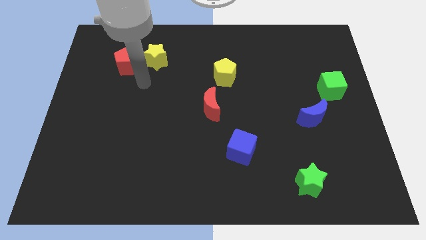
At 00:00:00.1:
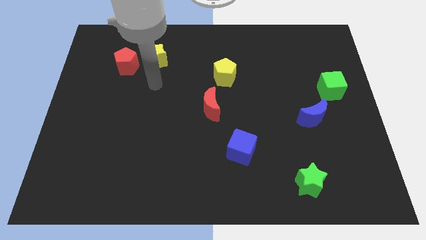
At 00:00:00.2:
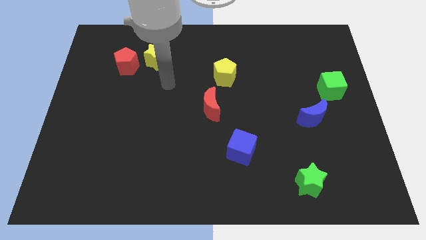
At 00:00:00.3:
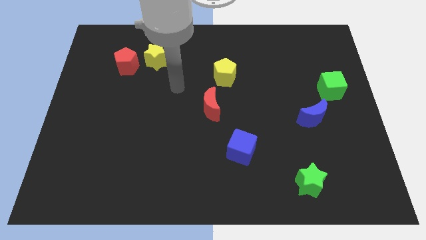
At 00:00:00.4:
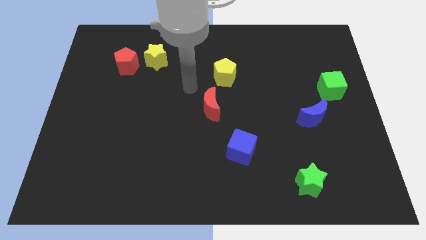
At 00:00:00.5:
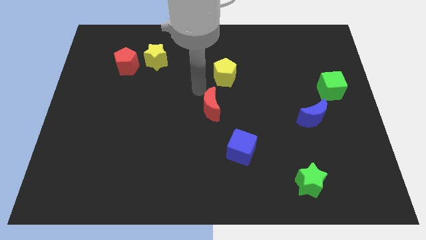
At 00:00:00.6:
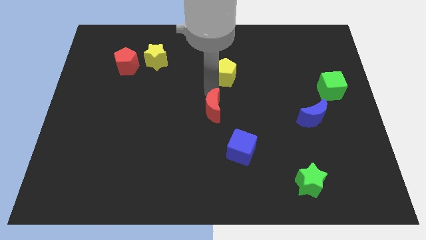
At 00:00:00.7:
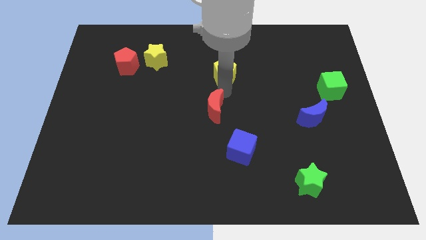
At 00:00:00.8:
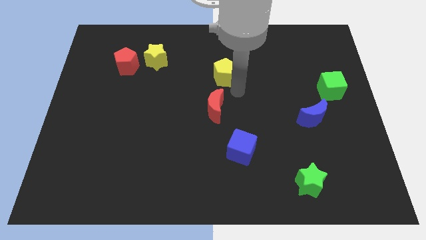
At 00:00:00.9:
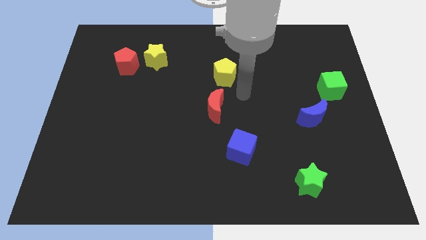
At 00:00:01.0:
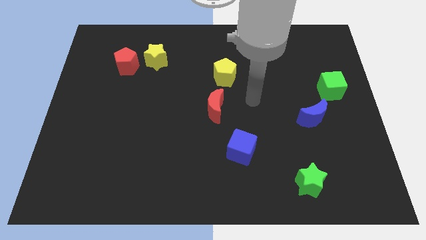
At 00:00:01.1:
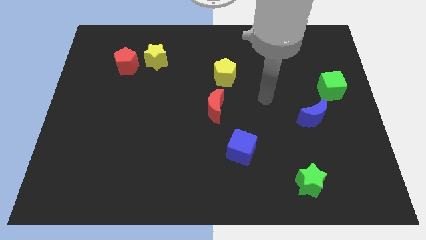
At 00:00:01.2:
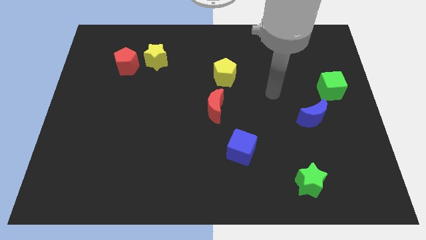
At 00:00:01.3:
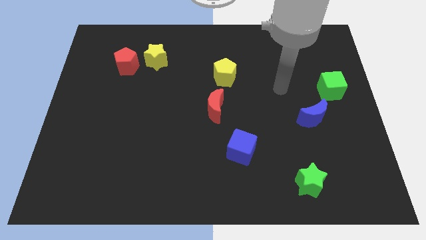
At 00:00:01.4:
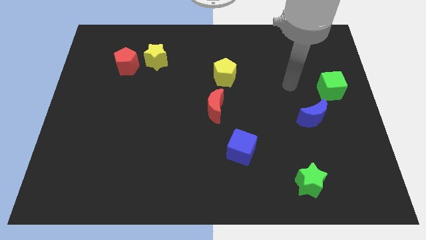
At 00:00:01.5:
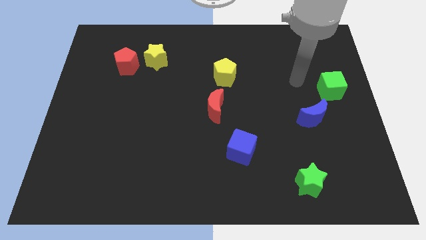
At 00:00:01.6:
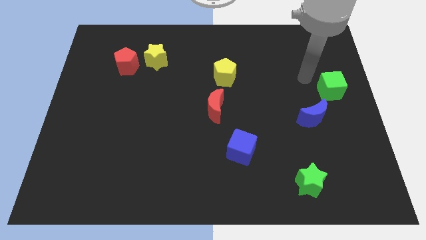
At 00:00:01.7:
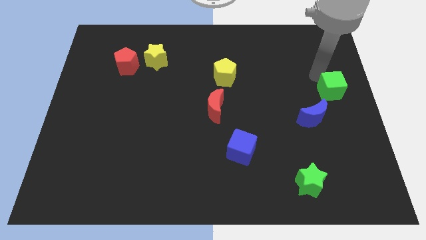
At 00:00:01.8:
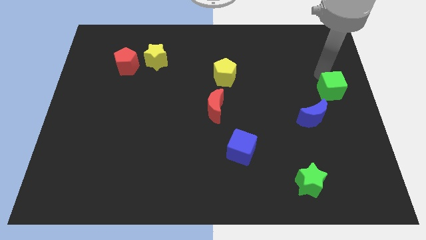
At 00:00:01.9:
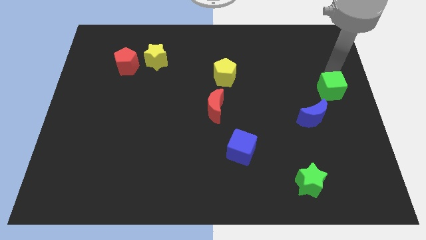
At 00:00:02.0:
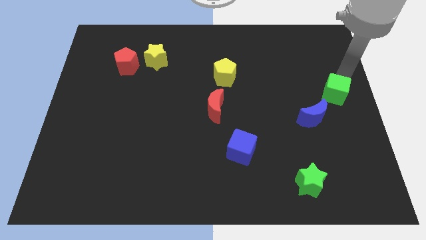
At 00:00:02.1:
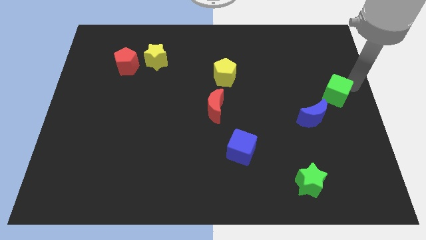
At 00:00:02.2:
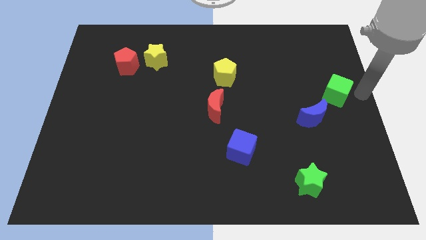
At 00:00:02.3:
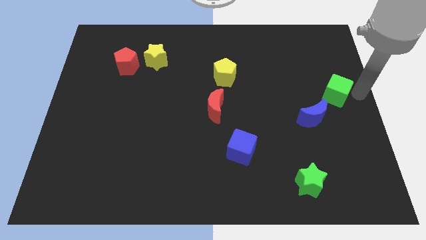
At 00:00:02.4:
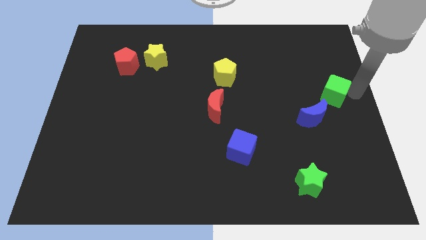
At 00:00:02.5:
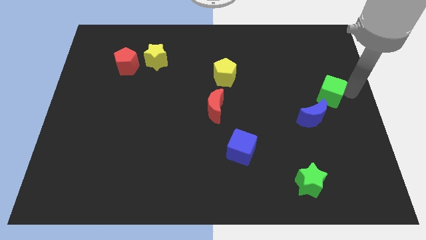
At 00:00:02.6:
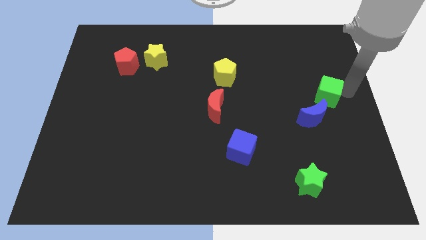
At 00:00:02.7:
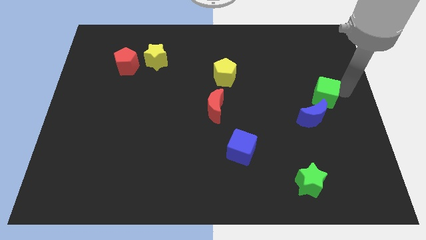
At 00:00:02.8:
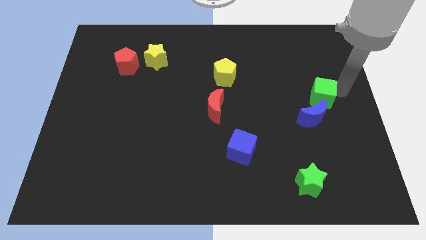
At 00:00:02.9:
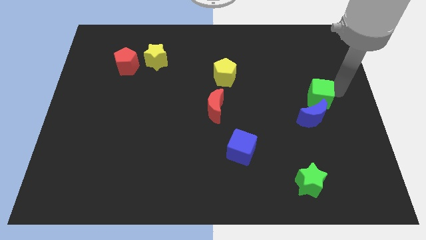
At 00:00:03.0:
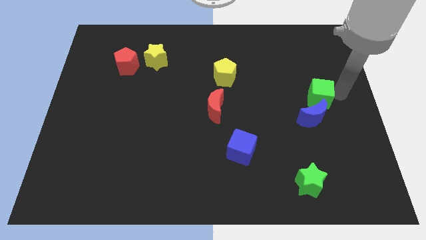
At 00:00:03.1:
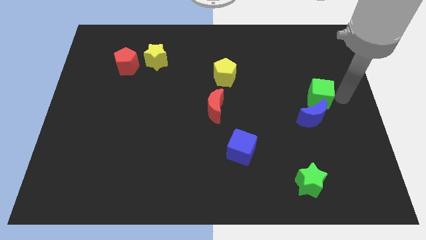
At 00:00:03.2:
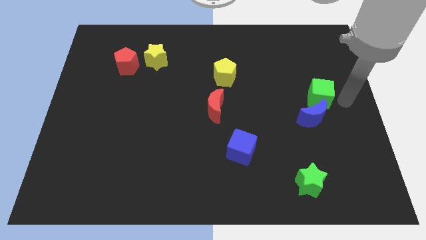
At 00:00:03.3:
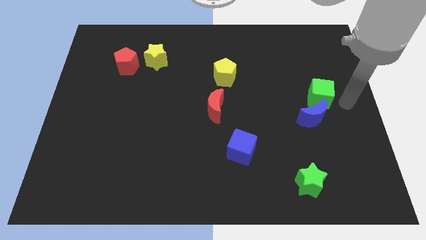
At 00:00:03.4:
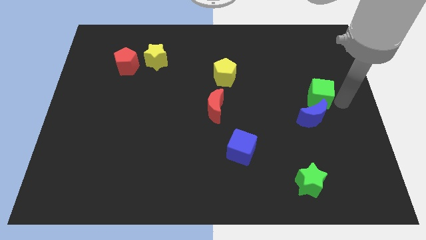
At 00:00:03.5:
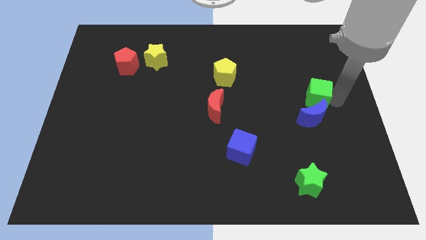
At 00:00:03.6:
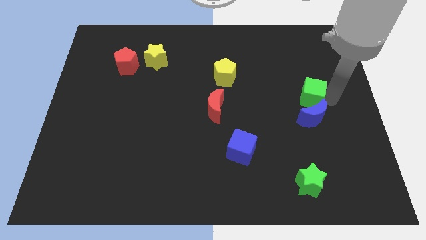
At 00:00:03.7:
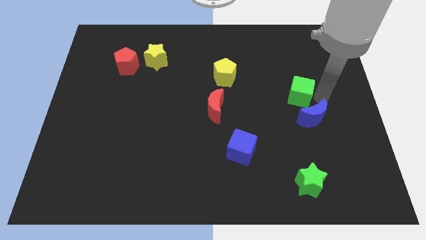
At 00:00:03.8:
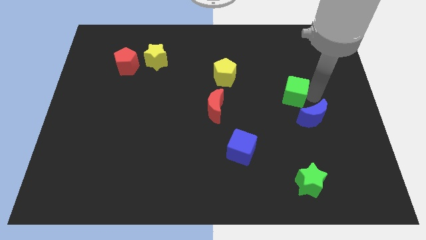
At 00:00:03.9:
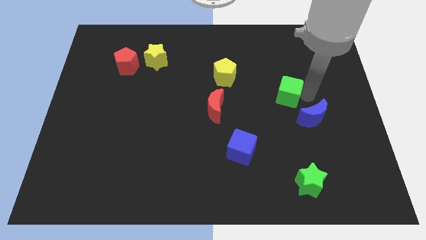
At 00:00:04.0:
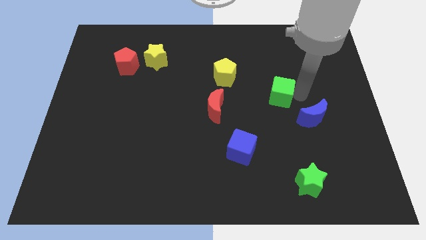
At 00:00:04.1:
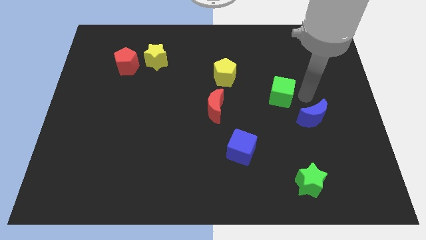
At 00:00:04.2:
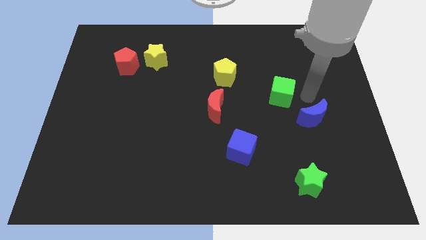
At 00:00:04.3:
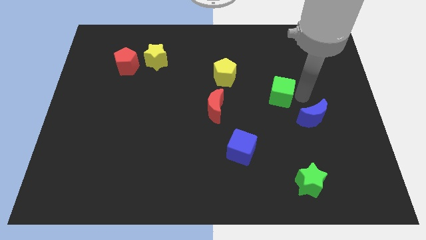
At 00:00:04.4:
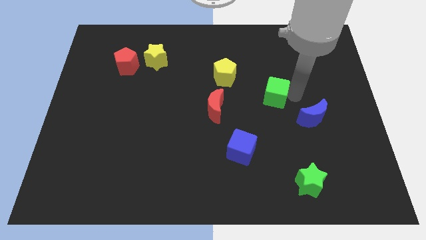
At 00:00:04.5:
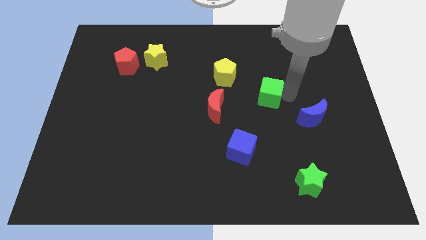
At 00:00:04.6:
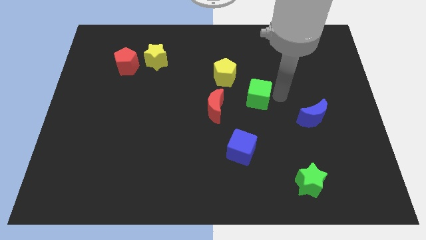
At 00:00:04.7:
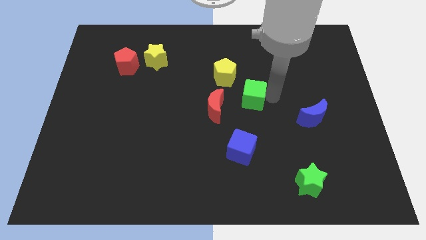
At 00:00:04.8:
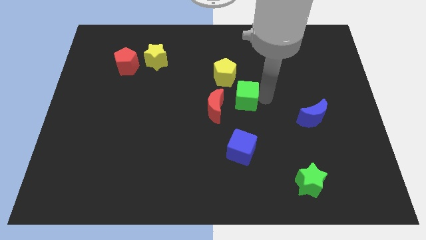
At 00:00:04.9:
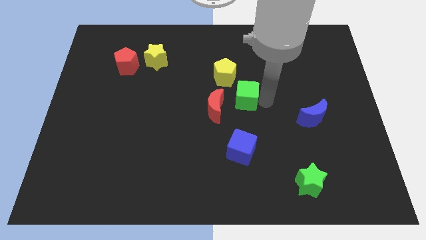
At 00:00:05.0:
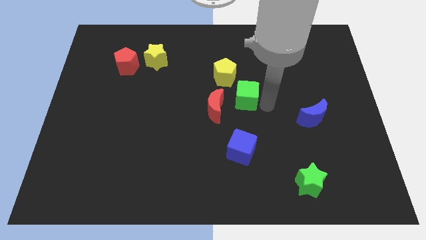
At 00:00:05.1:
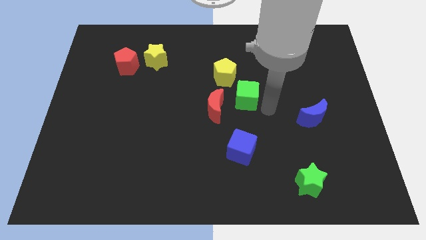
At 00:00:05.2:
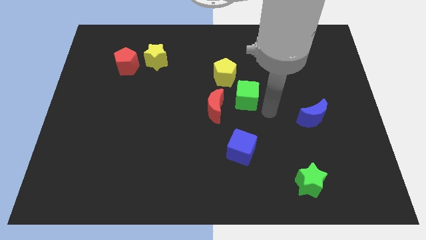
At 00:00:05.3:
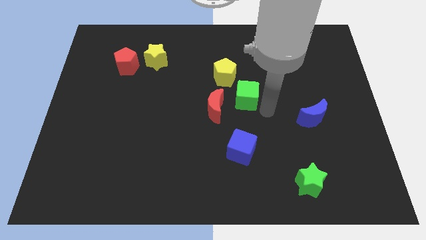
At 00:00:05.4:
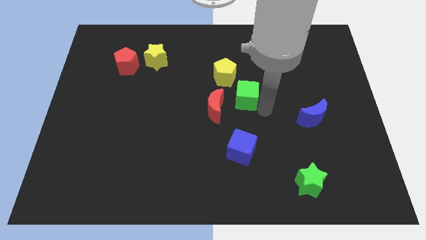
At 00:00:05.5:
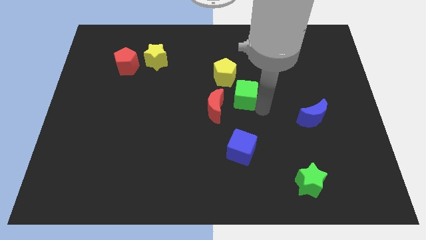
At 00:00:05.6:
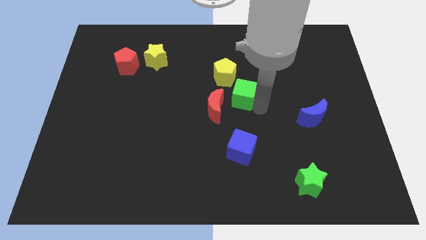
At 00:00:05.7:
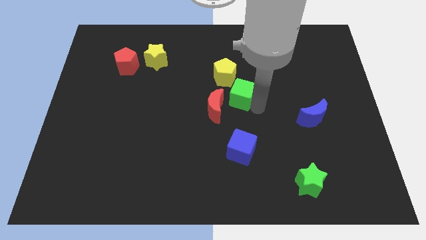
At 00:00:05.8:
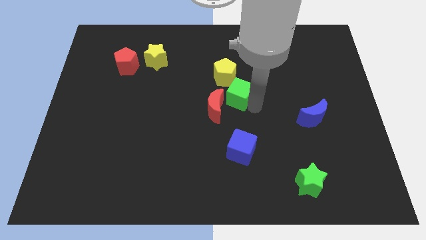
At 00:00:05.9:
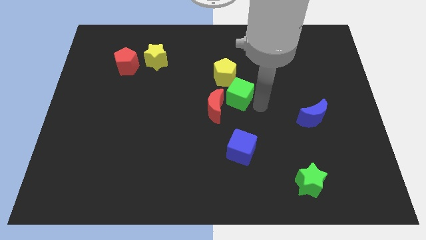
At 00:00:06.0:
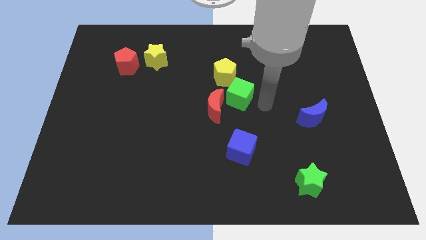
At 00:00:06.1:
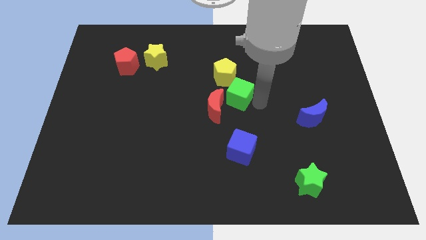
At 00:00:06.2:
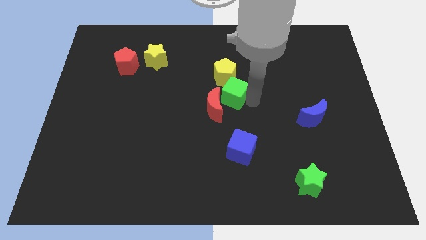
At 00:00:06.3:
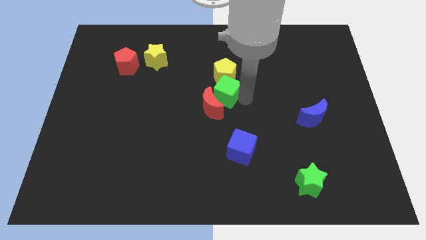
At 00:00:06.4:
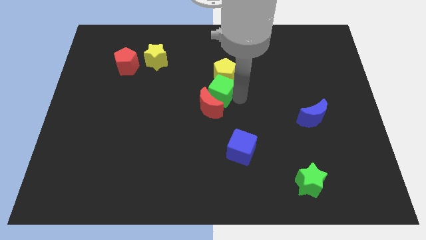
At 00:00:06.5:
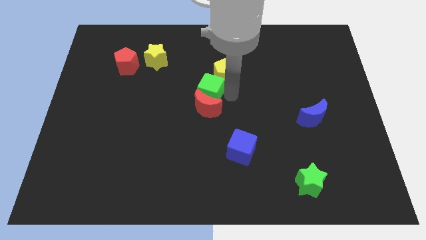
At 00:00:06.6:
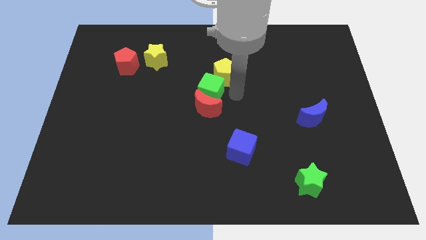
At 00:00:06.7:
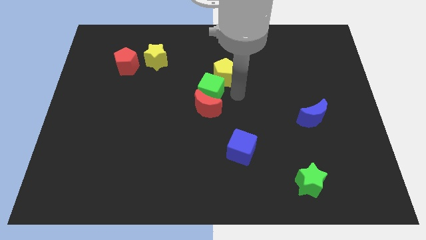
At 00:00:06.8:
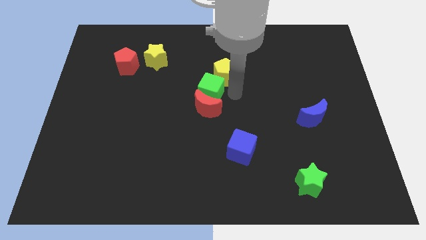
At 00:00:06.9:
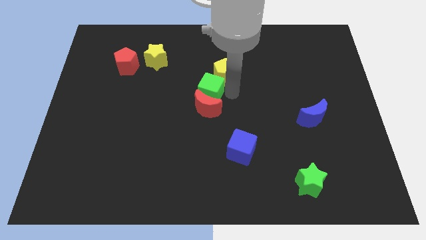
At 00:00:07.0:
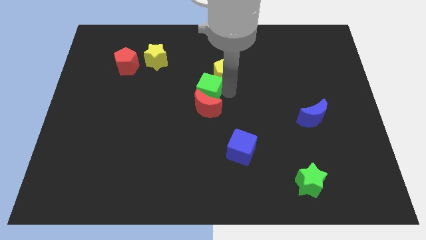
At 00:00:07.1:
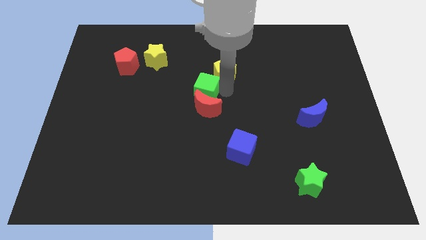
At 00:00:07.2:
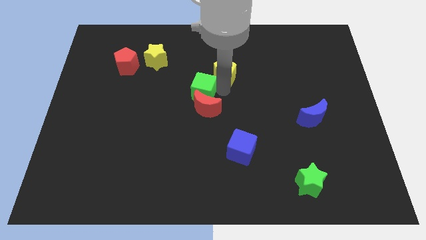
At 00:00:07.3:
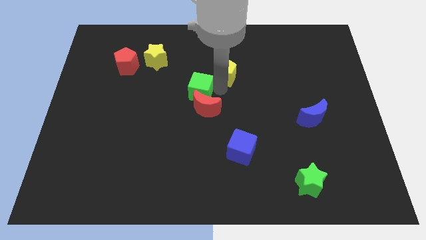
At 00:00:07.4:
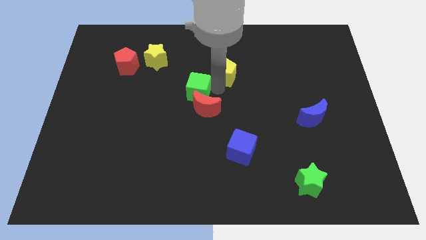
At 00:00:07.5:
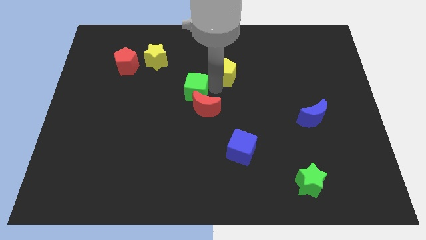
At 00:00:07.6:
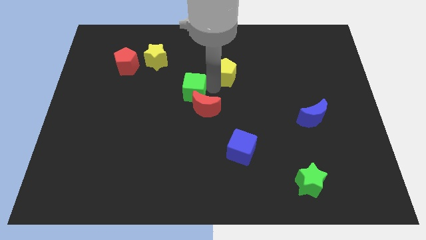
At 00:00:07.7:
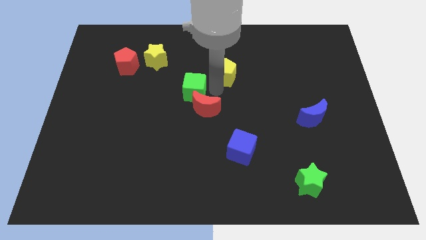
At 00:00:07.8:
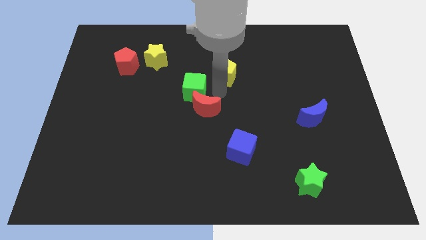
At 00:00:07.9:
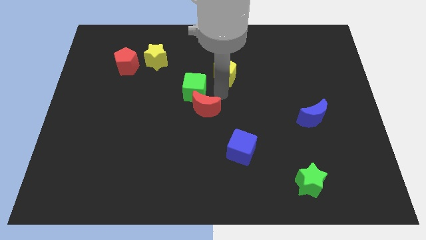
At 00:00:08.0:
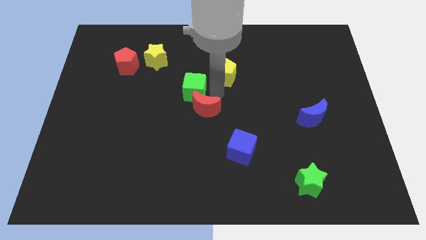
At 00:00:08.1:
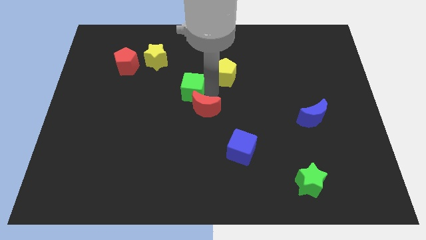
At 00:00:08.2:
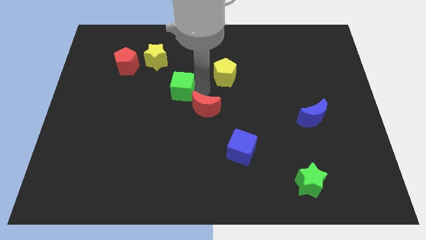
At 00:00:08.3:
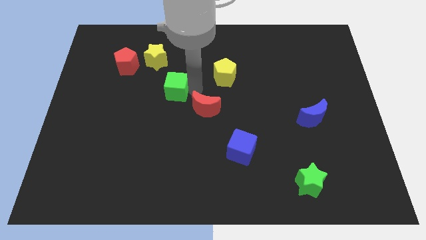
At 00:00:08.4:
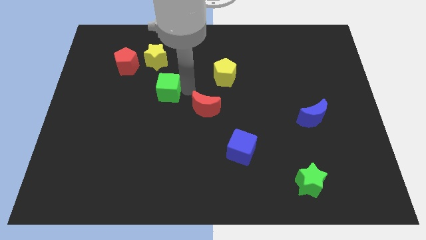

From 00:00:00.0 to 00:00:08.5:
push the green cube to the bottom side of the yellow star

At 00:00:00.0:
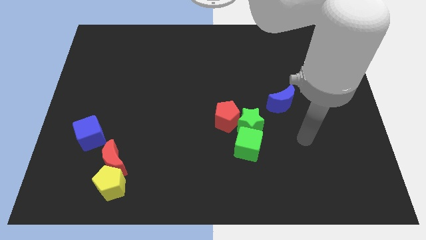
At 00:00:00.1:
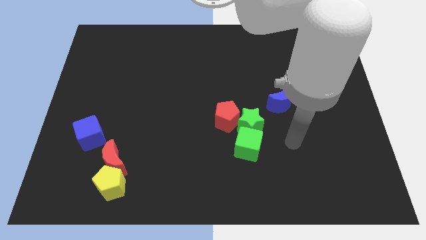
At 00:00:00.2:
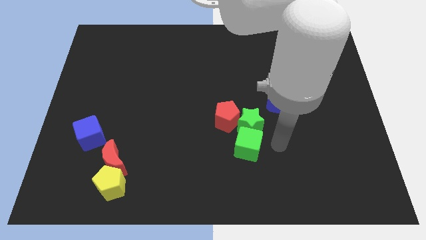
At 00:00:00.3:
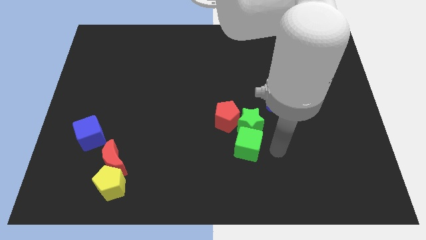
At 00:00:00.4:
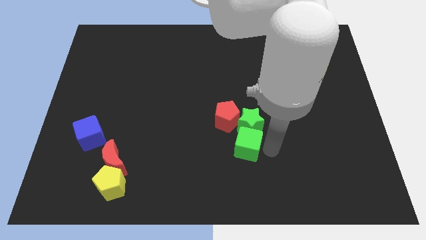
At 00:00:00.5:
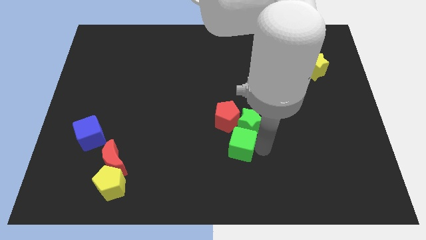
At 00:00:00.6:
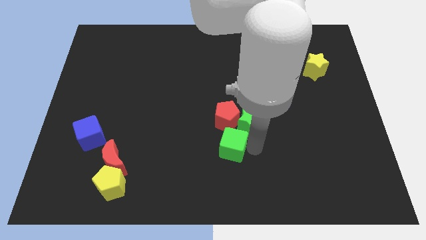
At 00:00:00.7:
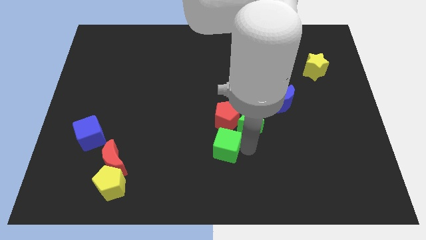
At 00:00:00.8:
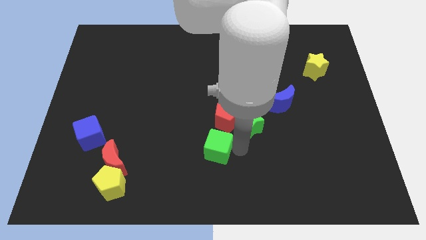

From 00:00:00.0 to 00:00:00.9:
slide the green cube diagonally down and to the left of the red pentagon
